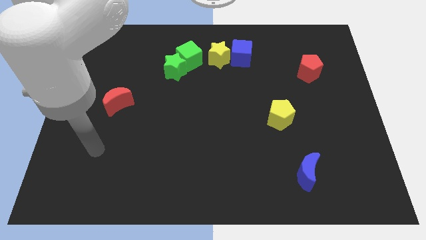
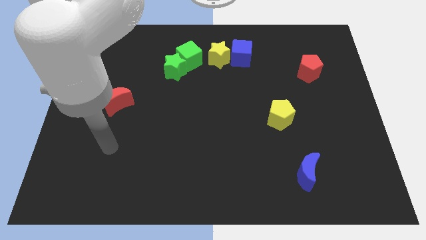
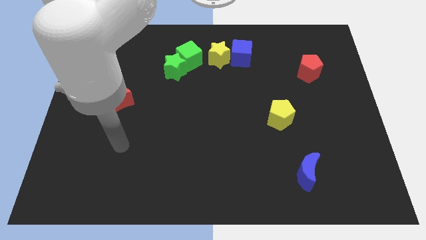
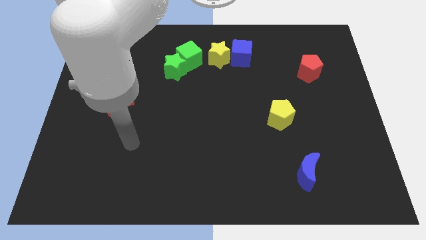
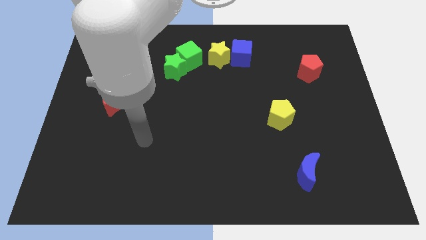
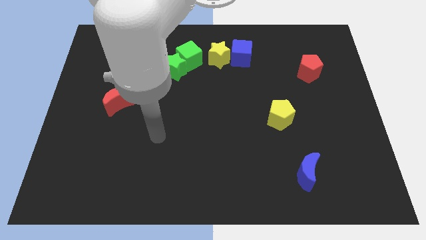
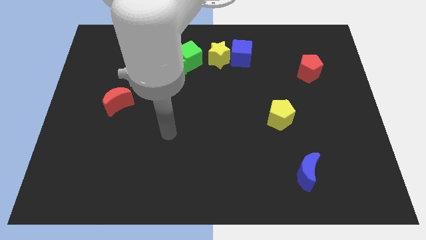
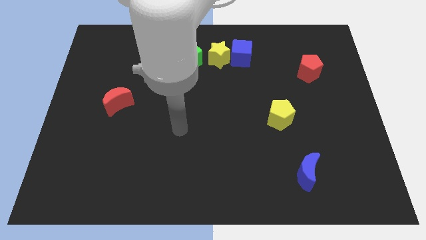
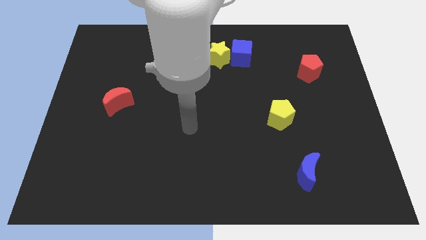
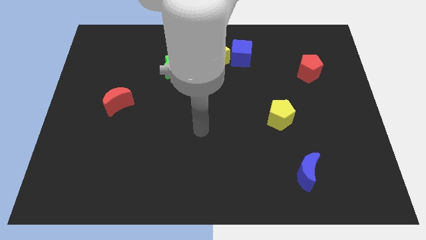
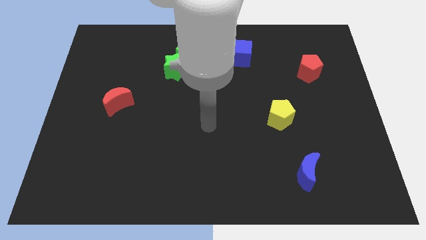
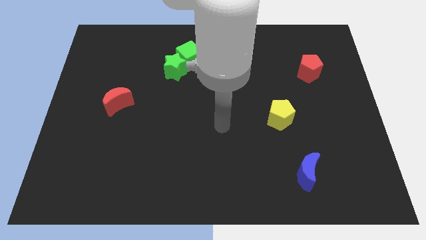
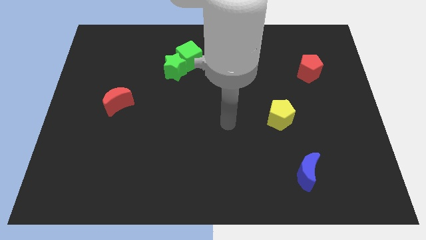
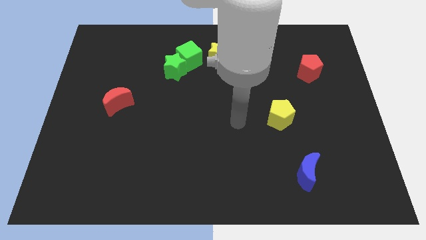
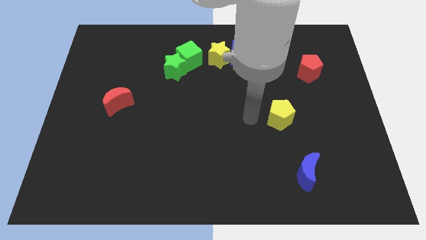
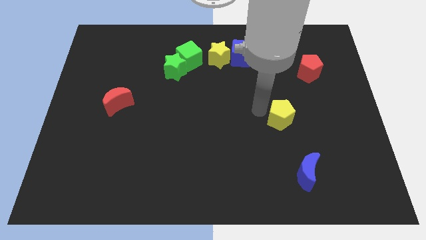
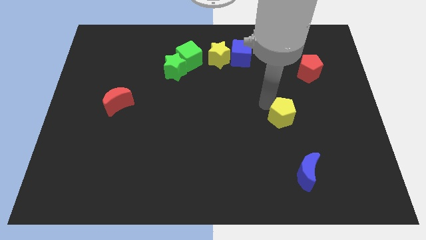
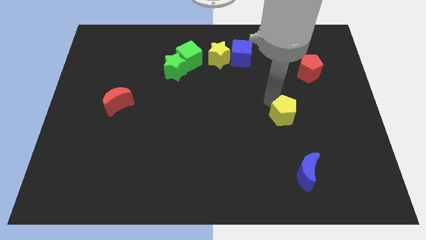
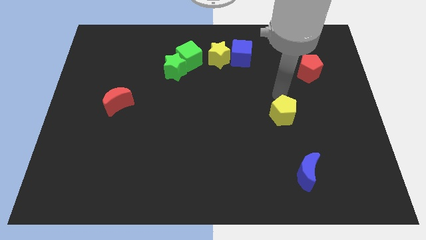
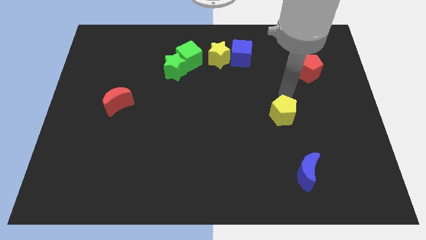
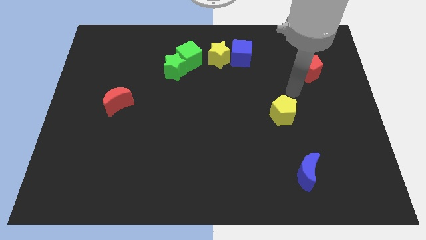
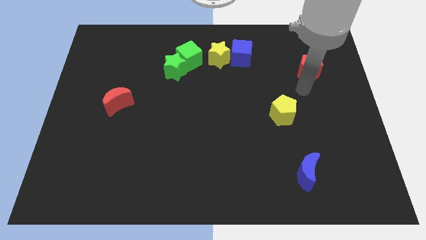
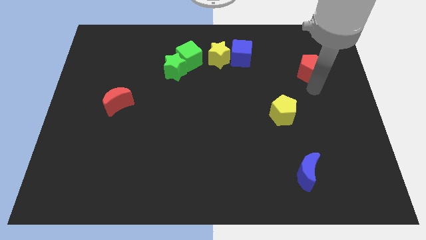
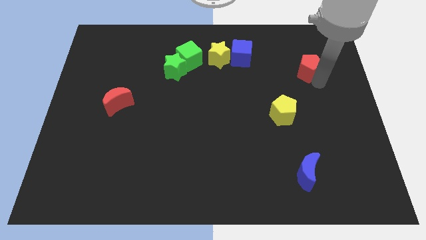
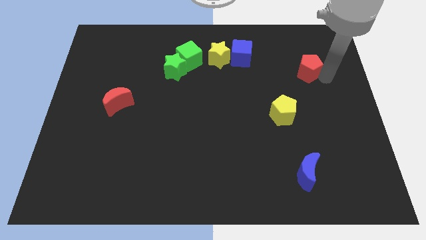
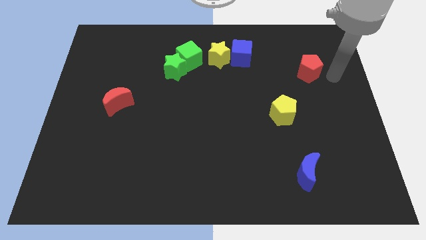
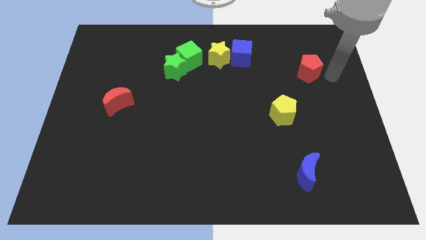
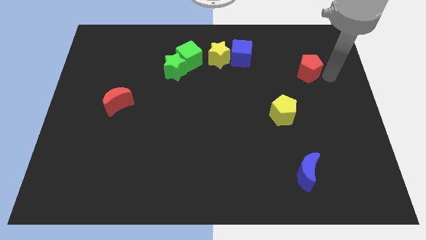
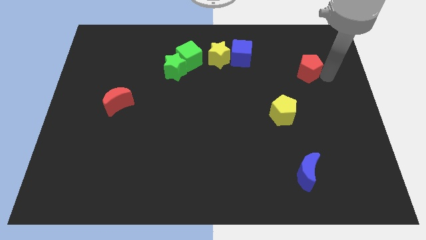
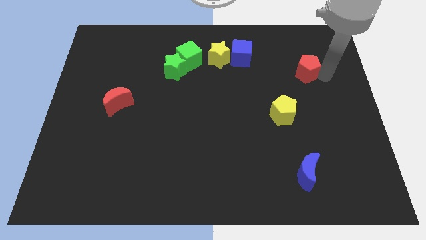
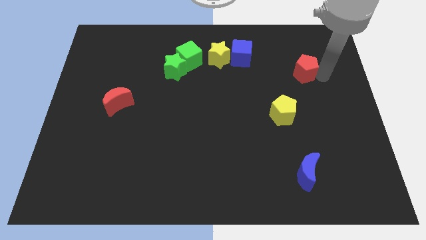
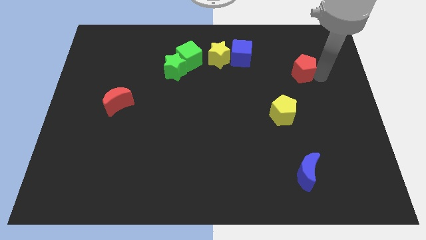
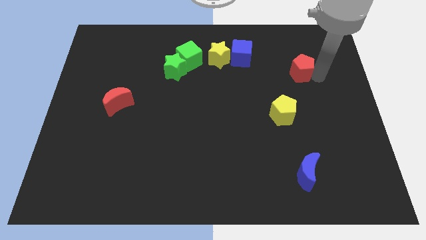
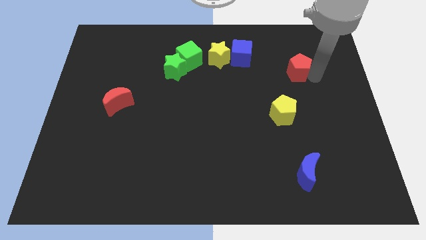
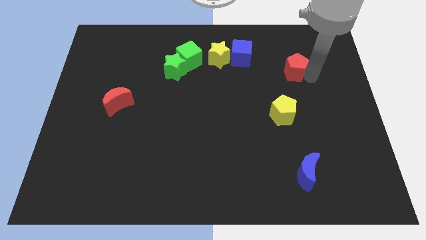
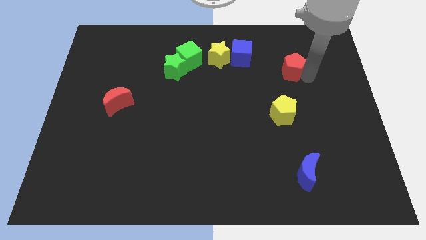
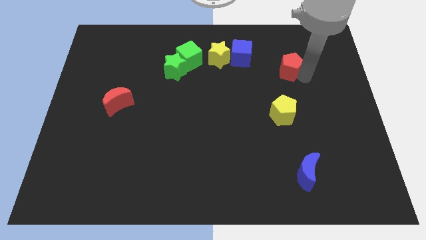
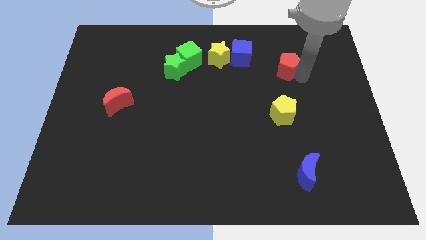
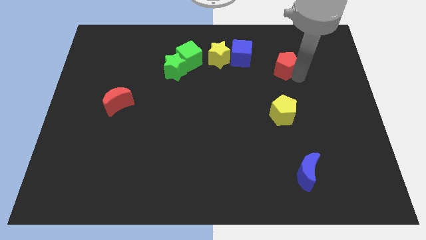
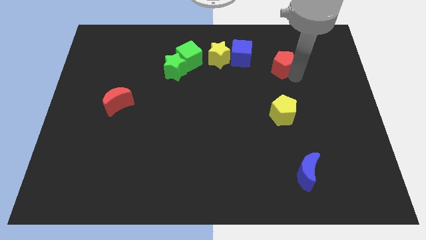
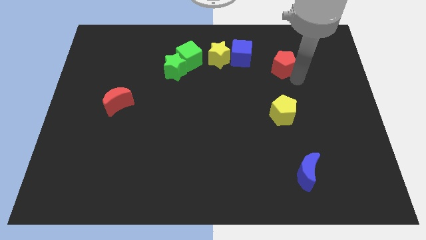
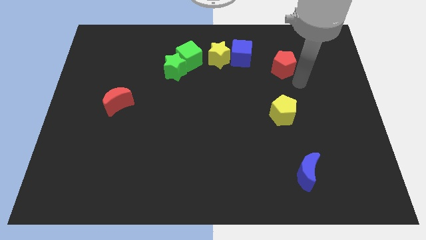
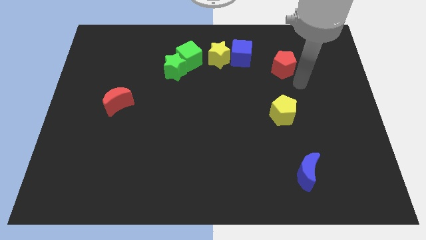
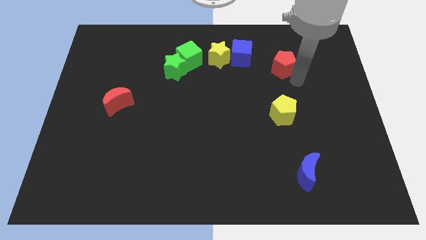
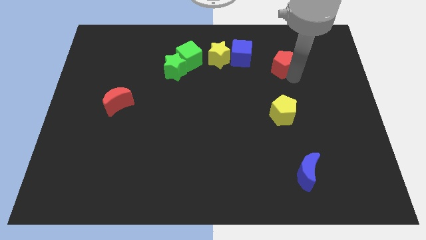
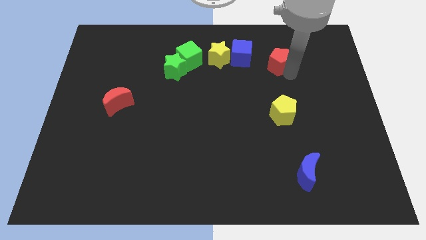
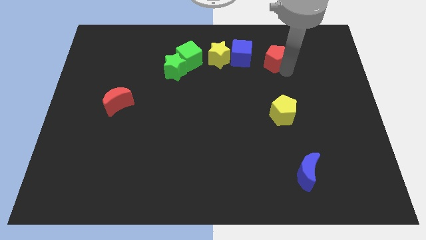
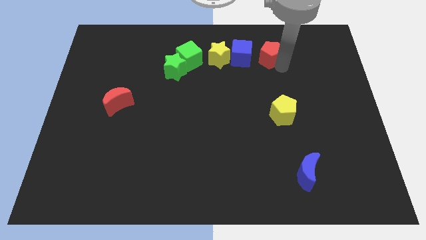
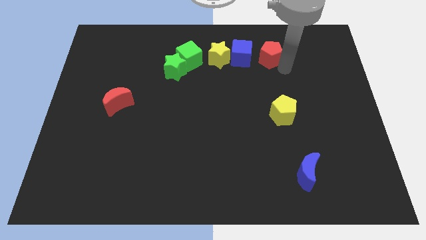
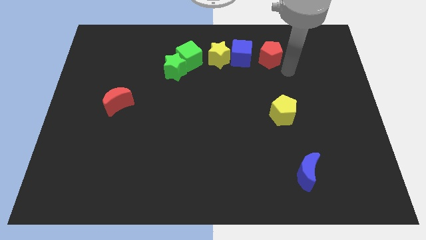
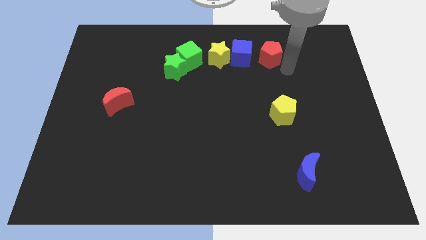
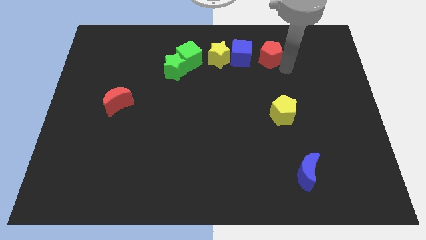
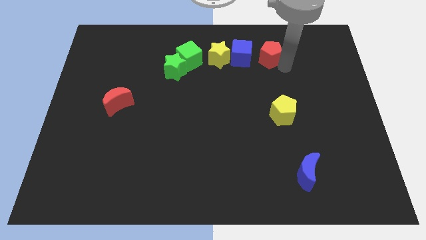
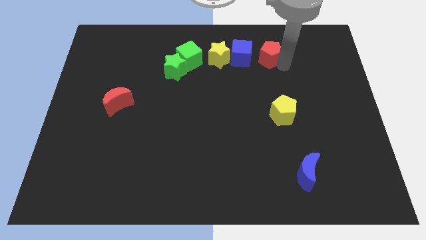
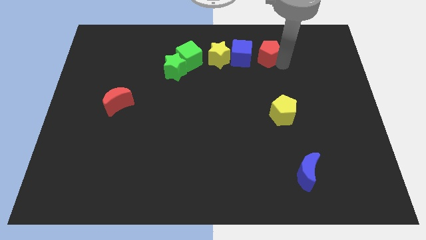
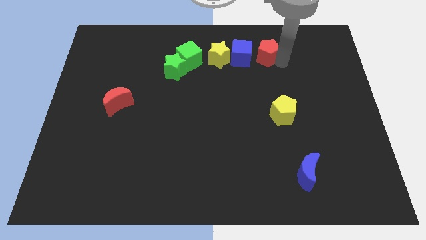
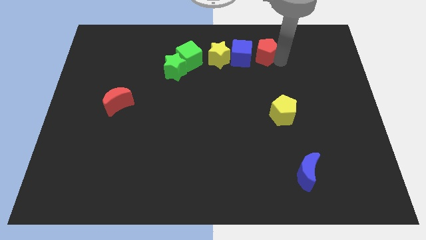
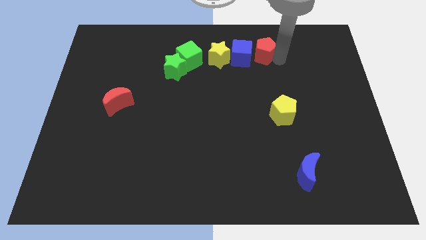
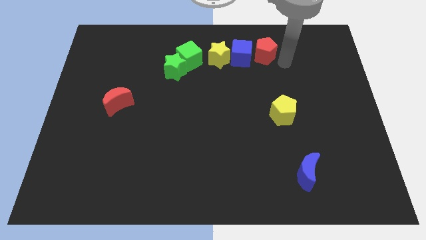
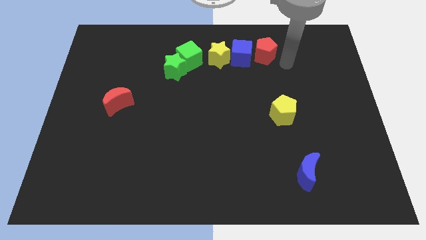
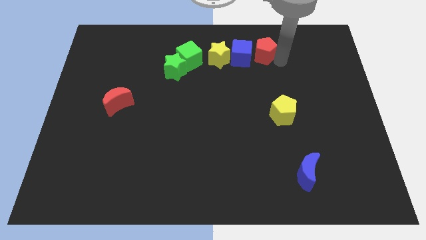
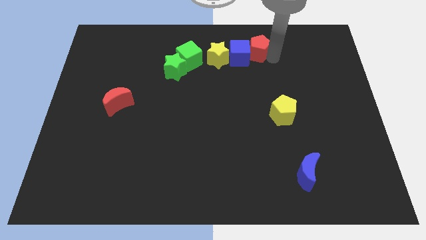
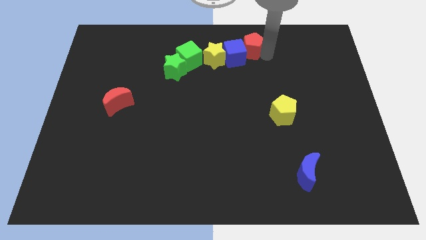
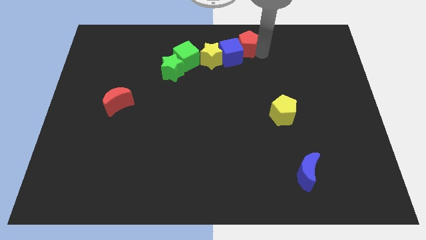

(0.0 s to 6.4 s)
push the red pentagon to the top
